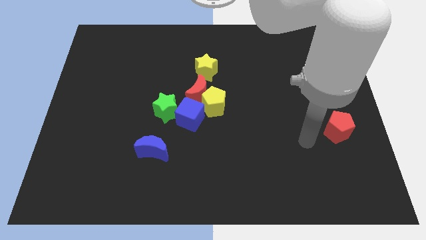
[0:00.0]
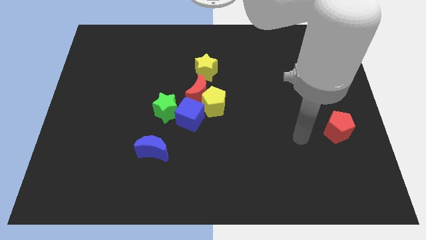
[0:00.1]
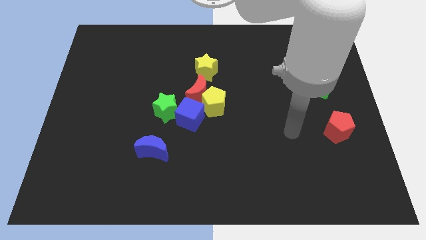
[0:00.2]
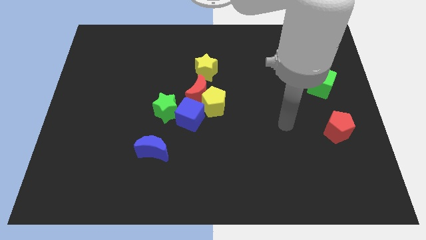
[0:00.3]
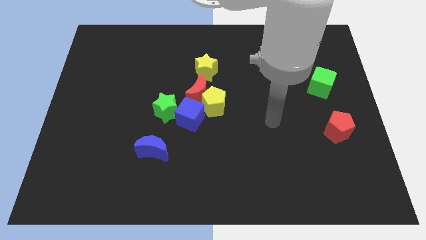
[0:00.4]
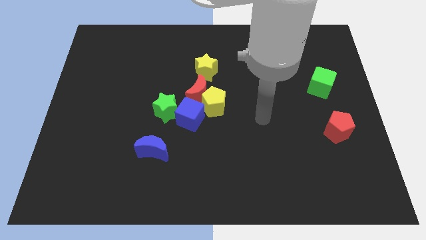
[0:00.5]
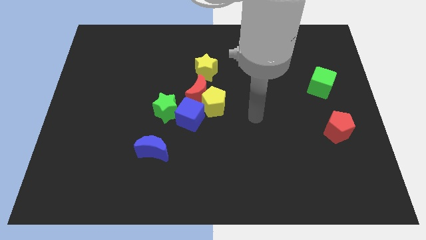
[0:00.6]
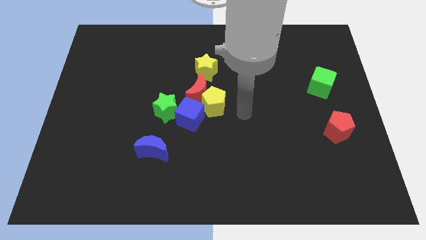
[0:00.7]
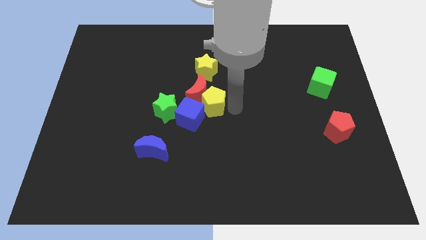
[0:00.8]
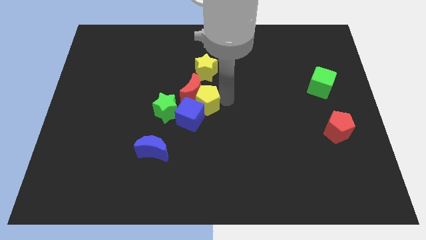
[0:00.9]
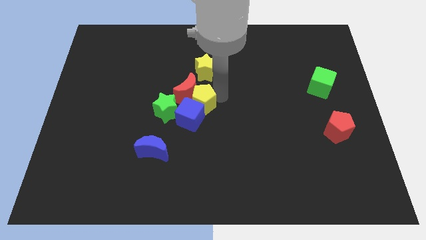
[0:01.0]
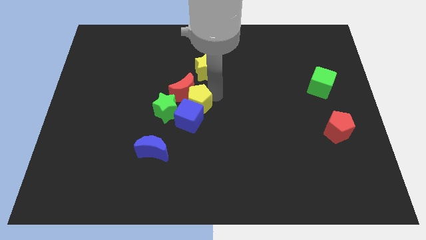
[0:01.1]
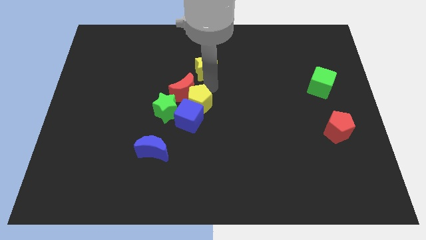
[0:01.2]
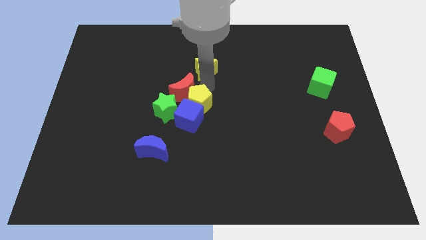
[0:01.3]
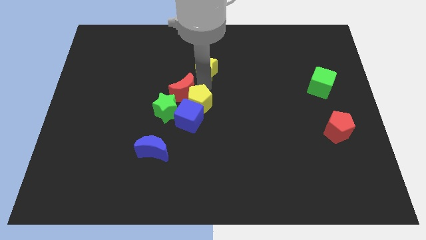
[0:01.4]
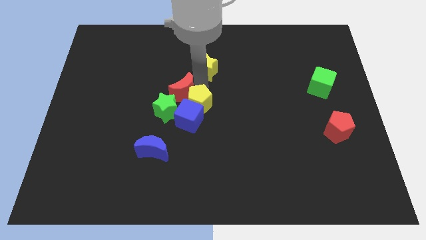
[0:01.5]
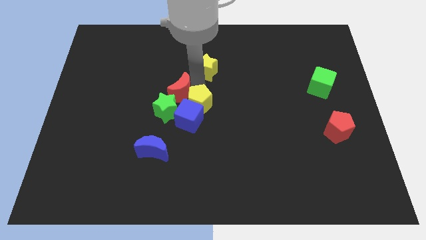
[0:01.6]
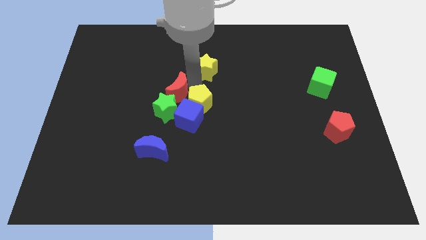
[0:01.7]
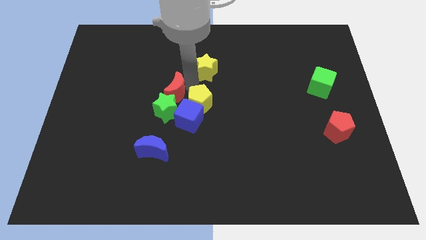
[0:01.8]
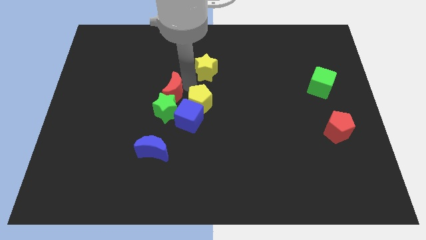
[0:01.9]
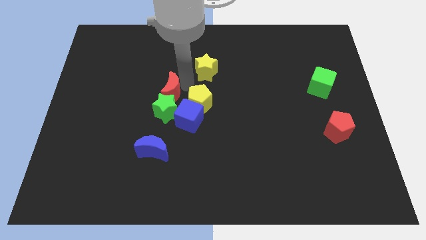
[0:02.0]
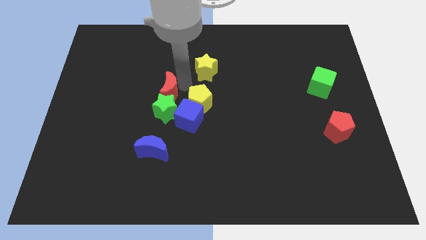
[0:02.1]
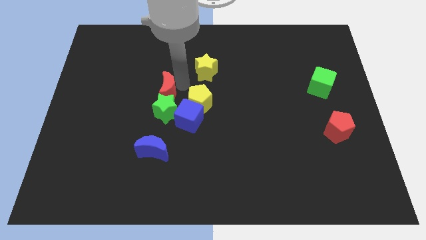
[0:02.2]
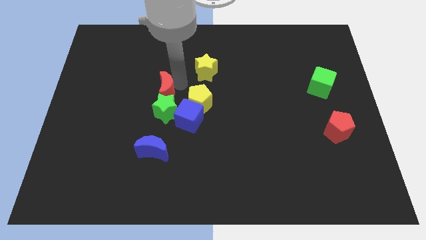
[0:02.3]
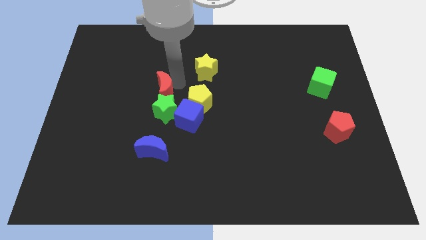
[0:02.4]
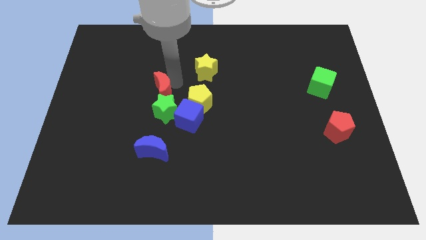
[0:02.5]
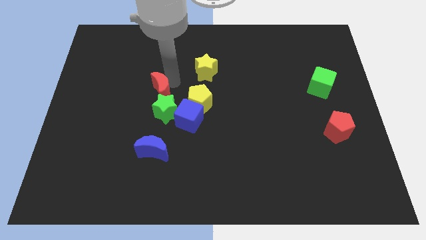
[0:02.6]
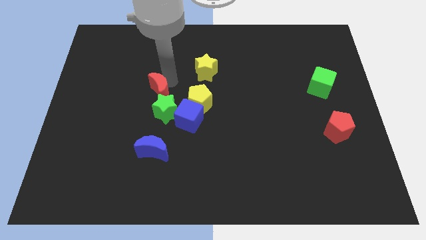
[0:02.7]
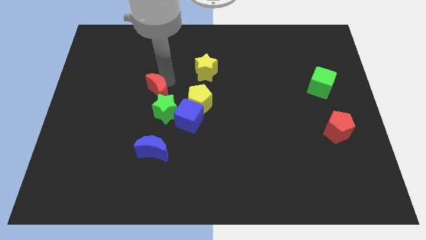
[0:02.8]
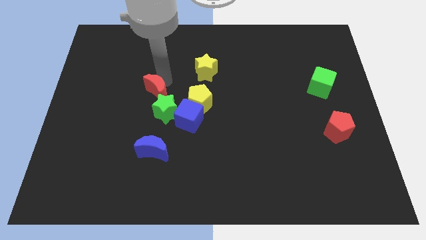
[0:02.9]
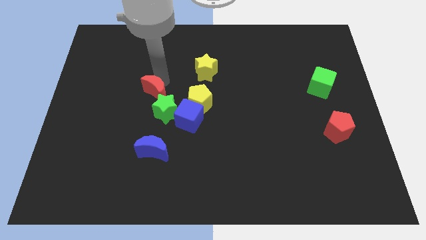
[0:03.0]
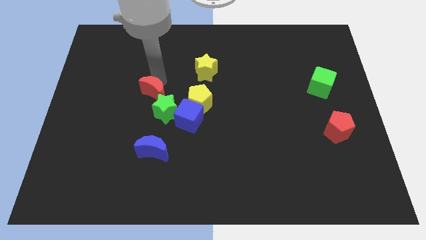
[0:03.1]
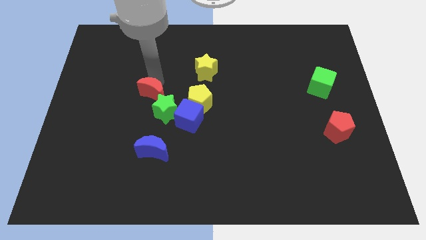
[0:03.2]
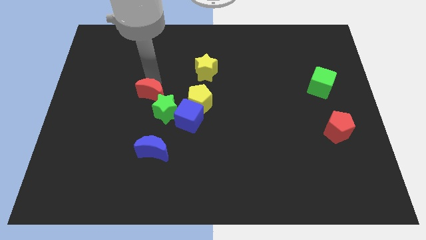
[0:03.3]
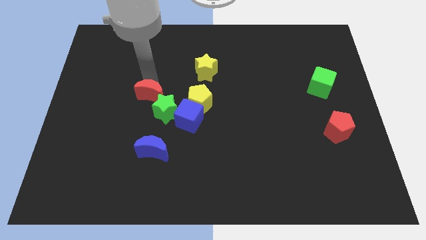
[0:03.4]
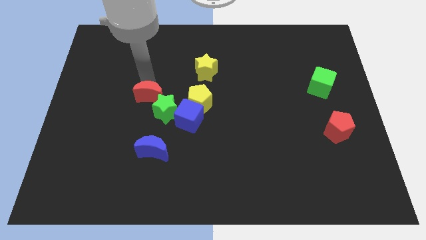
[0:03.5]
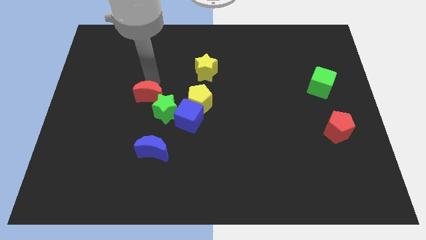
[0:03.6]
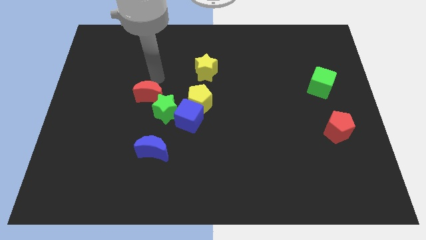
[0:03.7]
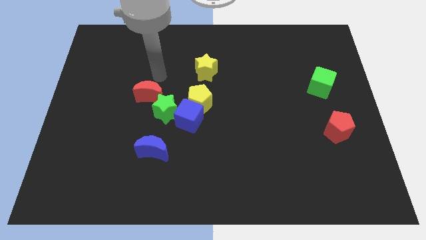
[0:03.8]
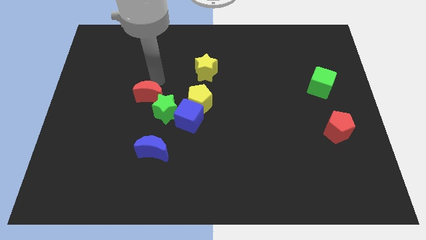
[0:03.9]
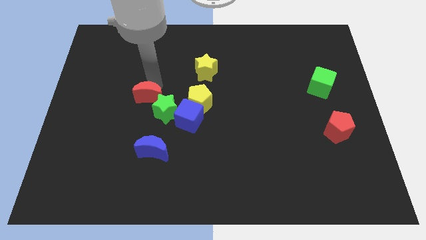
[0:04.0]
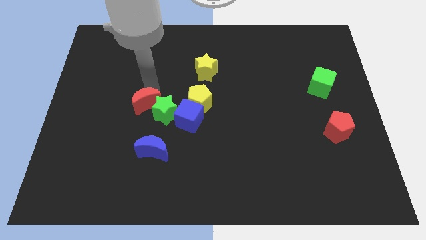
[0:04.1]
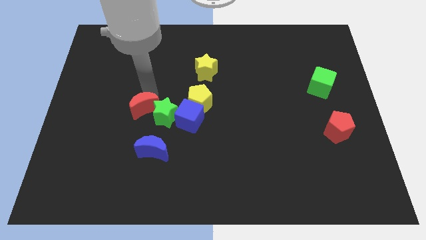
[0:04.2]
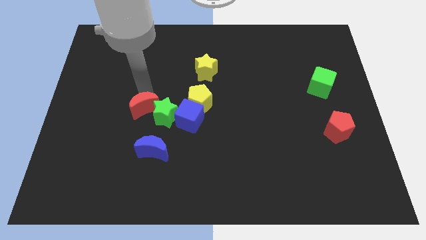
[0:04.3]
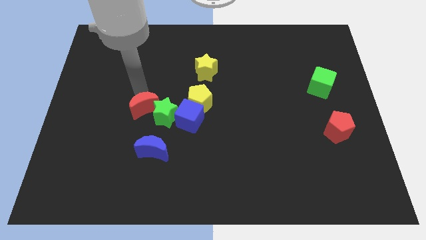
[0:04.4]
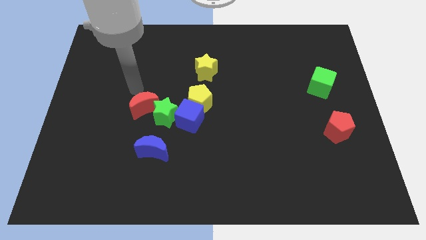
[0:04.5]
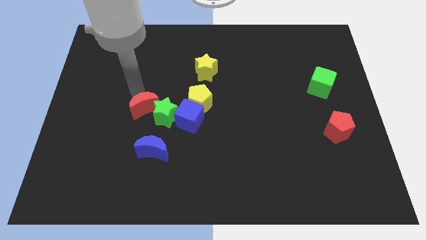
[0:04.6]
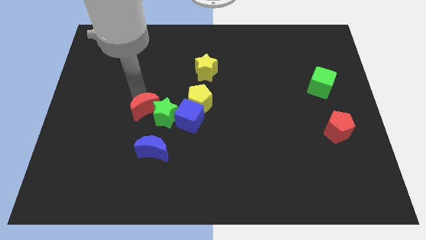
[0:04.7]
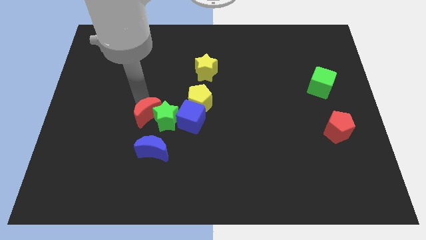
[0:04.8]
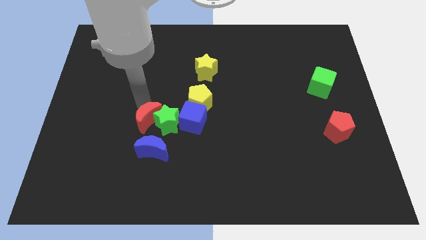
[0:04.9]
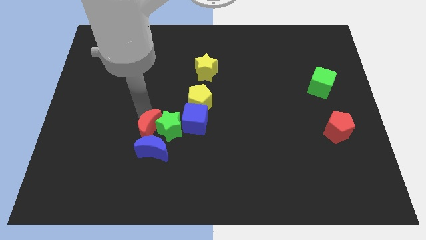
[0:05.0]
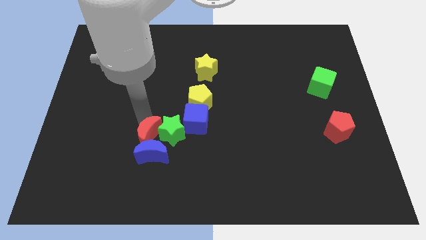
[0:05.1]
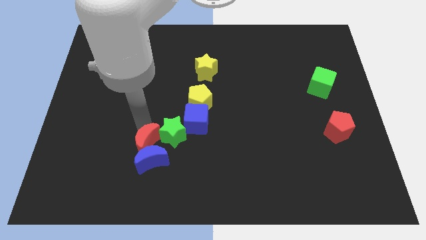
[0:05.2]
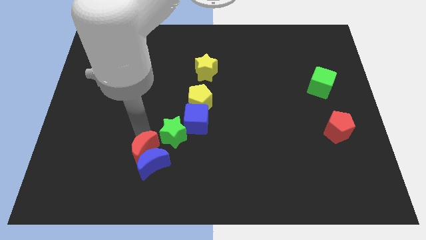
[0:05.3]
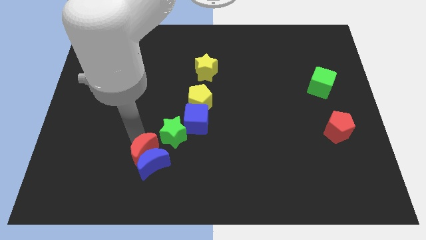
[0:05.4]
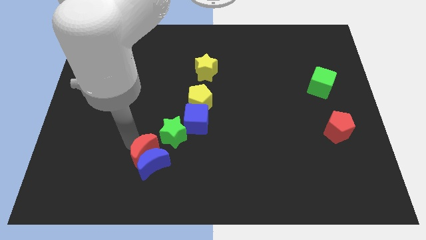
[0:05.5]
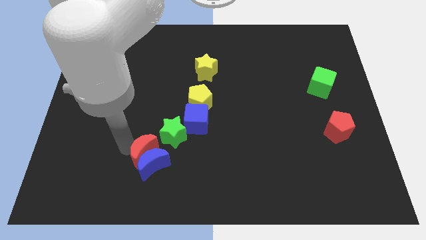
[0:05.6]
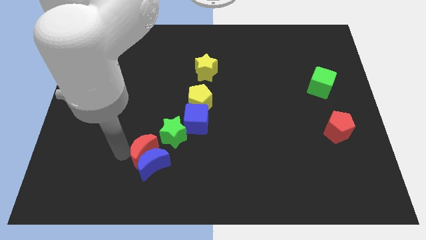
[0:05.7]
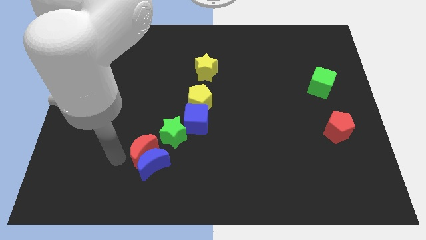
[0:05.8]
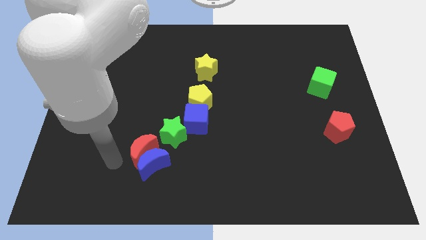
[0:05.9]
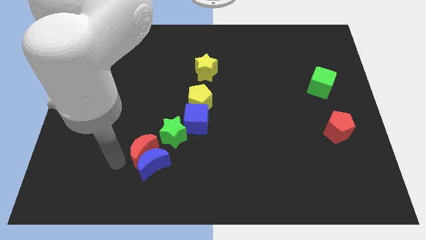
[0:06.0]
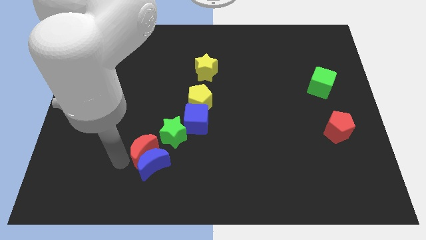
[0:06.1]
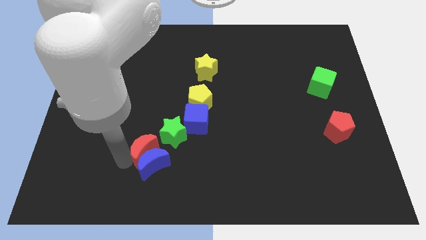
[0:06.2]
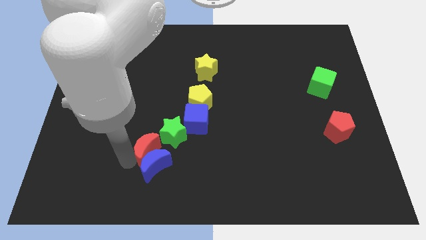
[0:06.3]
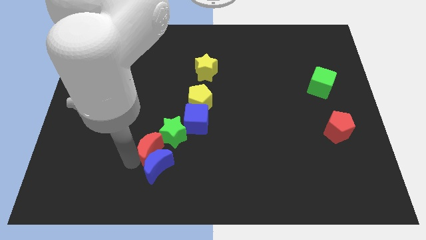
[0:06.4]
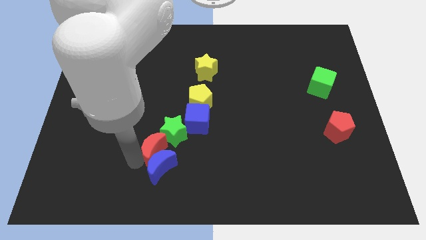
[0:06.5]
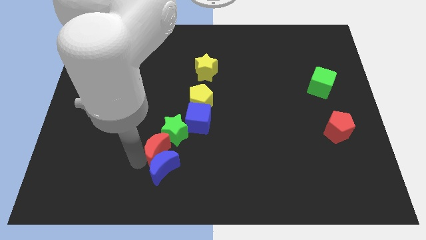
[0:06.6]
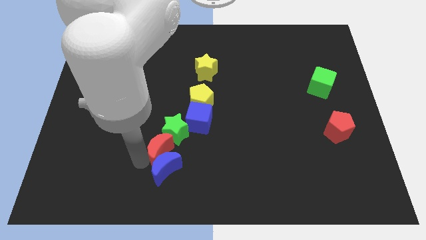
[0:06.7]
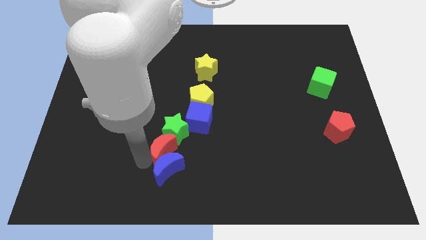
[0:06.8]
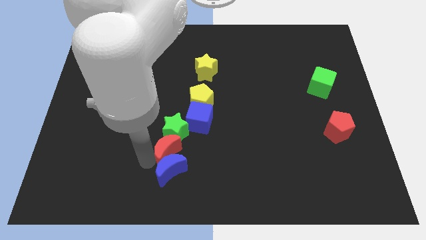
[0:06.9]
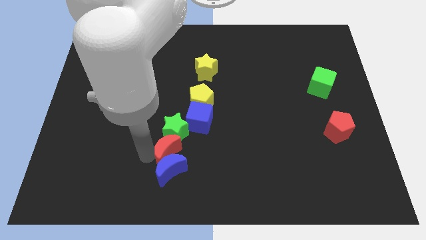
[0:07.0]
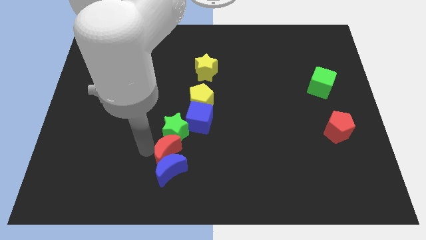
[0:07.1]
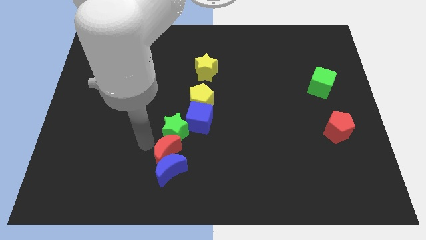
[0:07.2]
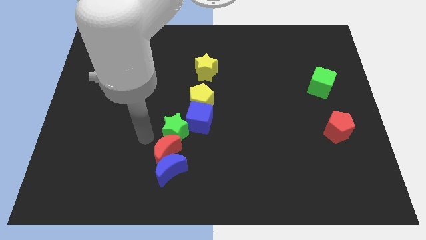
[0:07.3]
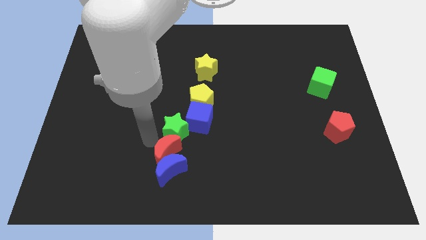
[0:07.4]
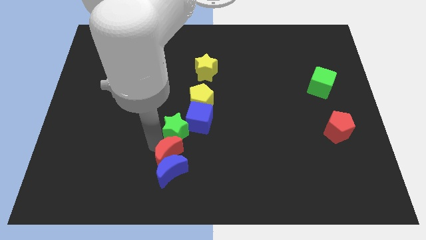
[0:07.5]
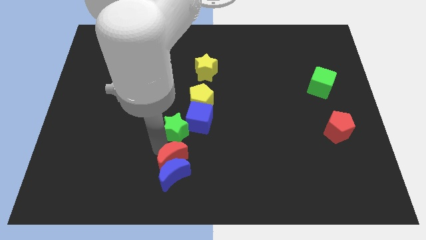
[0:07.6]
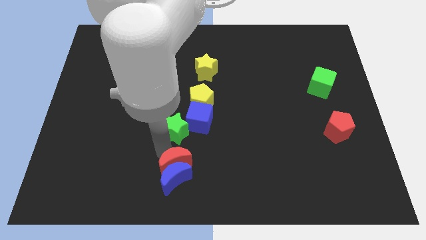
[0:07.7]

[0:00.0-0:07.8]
move the red moon to the bottom side
